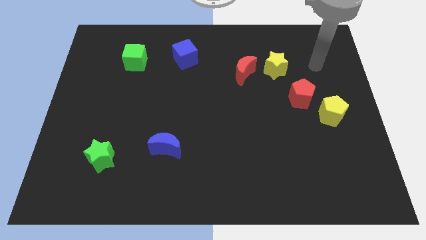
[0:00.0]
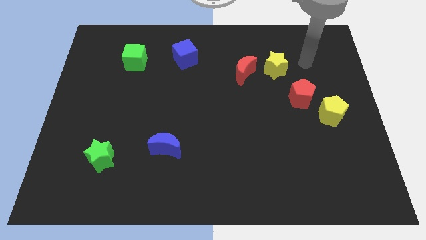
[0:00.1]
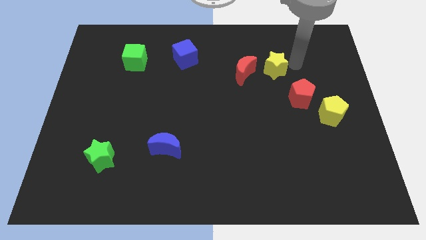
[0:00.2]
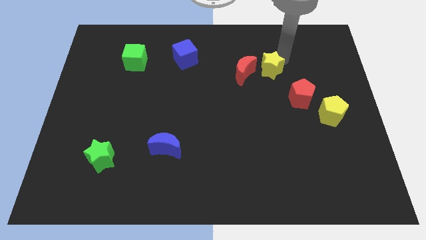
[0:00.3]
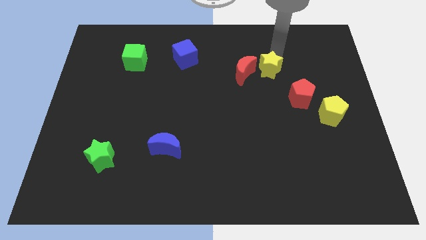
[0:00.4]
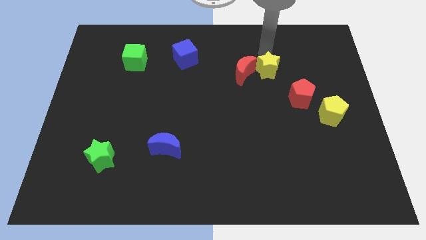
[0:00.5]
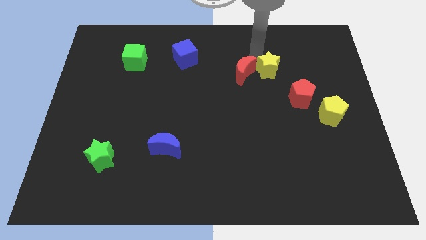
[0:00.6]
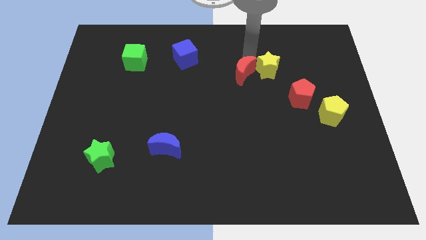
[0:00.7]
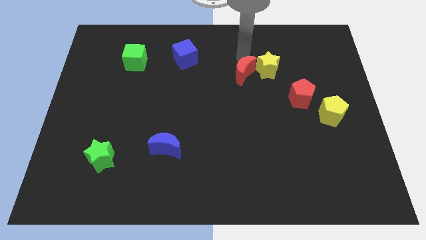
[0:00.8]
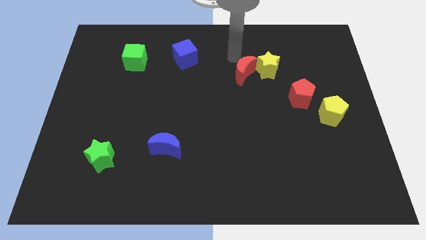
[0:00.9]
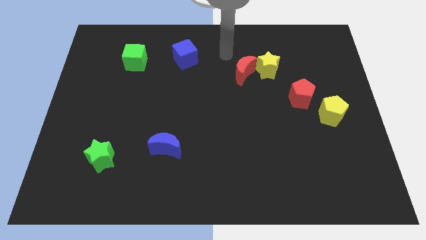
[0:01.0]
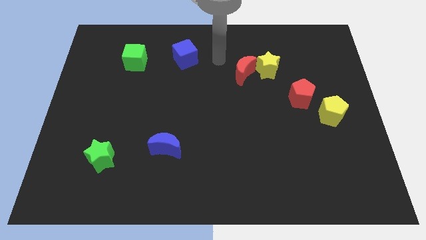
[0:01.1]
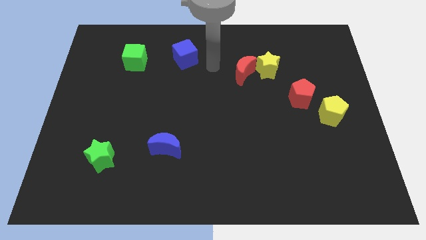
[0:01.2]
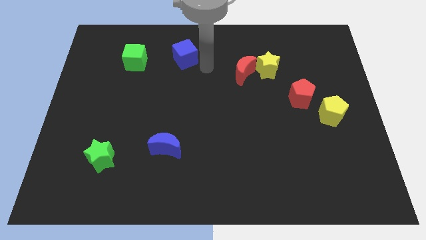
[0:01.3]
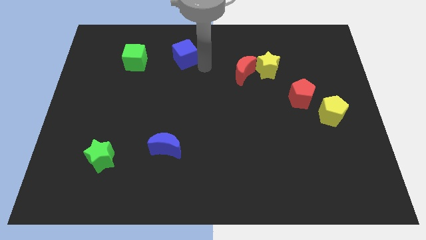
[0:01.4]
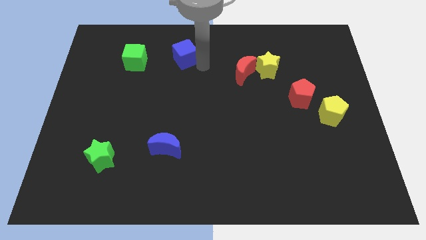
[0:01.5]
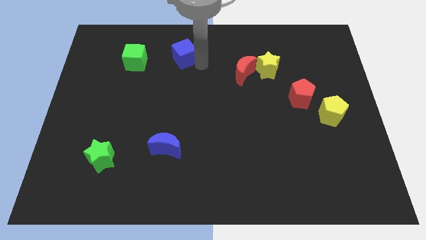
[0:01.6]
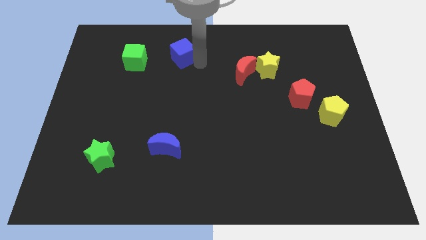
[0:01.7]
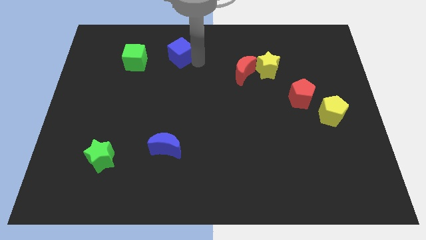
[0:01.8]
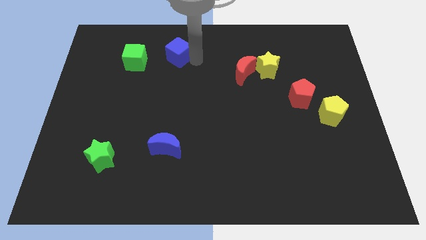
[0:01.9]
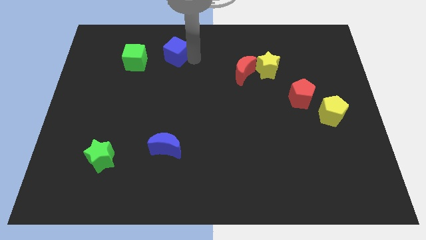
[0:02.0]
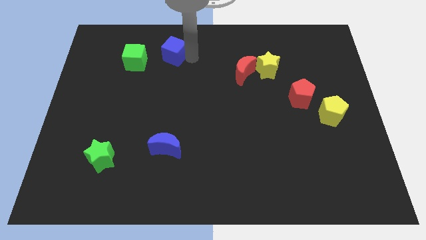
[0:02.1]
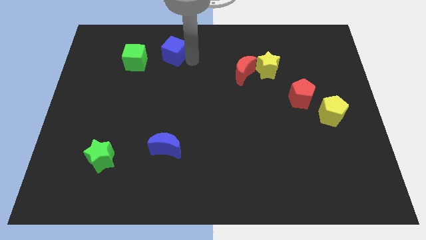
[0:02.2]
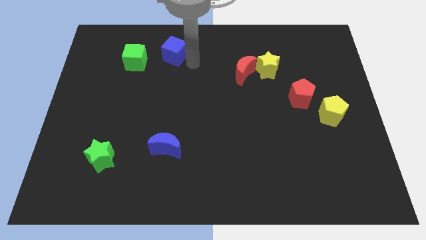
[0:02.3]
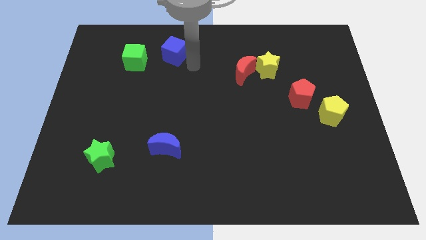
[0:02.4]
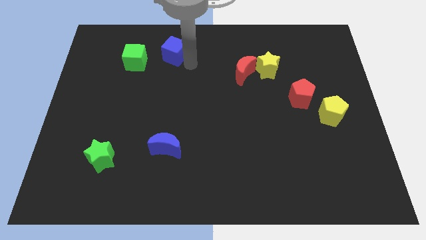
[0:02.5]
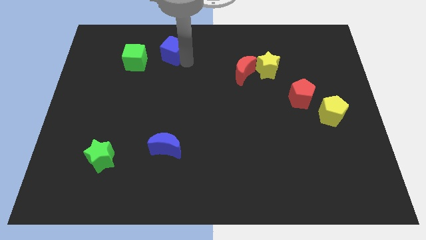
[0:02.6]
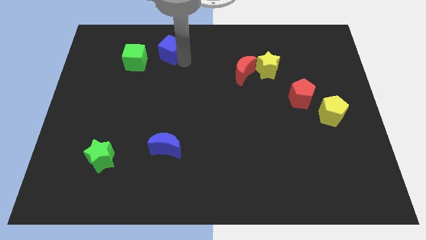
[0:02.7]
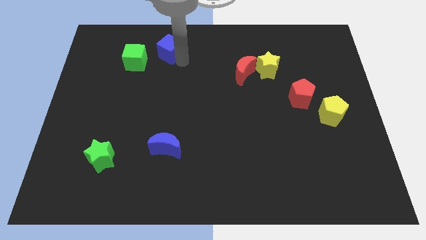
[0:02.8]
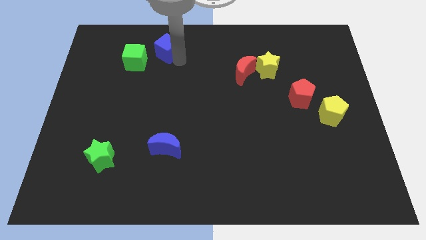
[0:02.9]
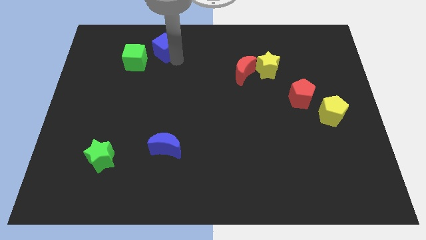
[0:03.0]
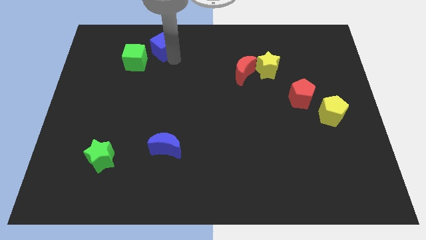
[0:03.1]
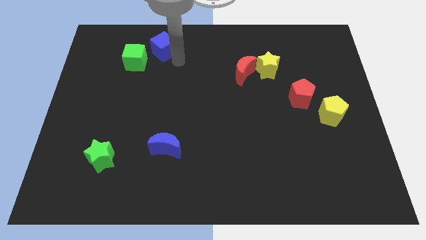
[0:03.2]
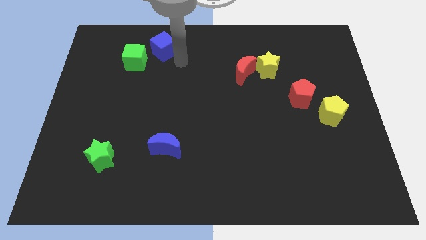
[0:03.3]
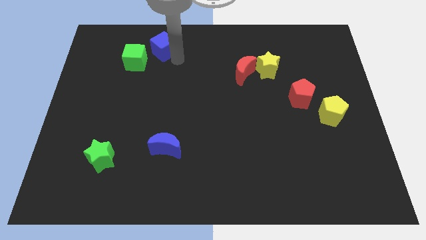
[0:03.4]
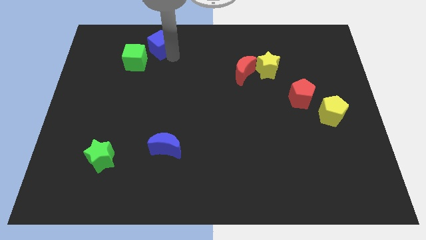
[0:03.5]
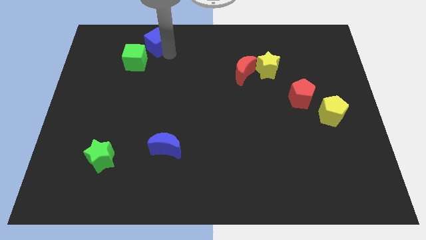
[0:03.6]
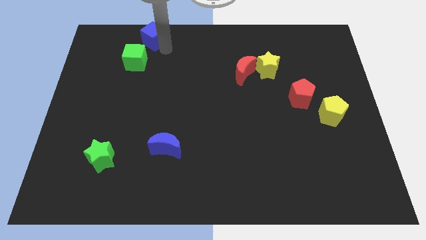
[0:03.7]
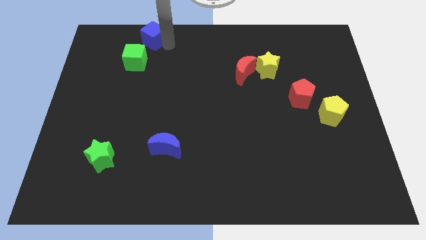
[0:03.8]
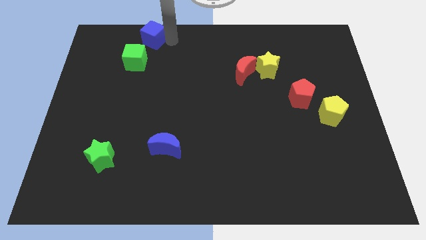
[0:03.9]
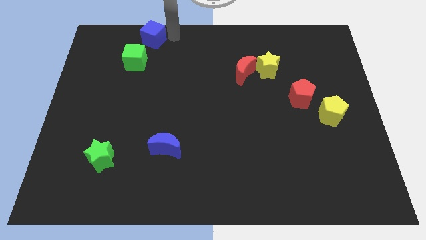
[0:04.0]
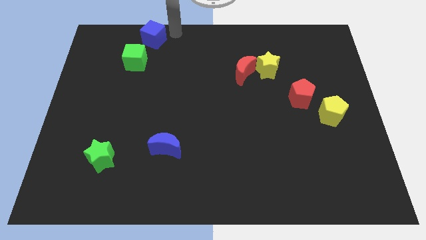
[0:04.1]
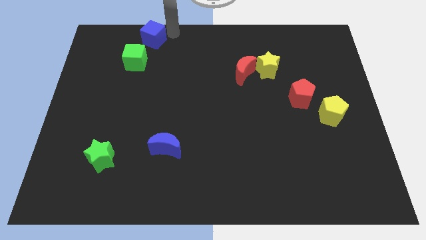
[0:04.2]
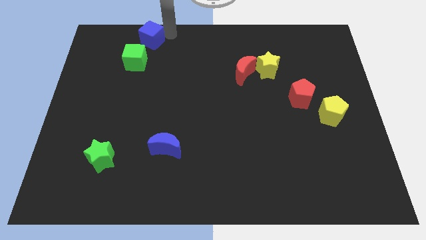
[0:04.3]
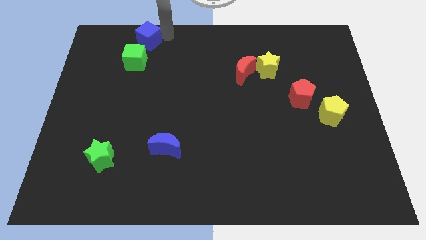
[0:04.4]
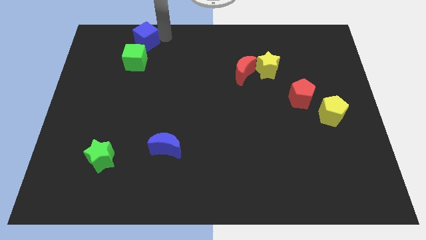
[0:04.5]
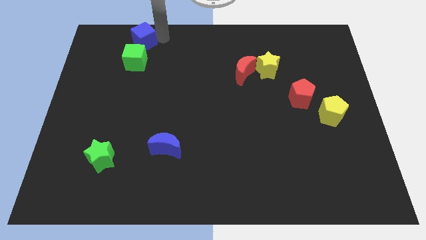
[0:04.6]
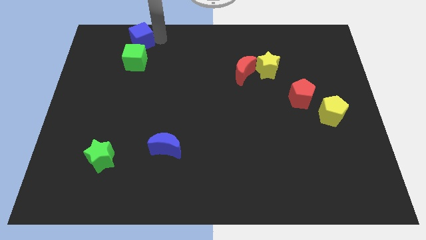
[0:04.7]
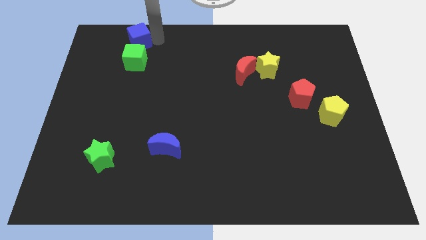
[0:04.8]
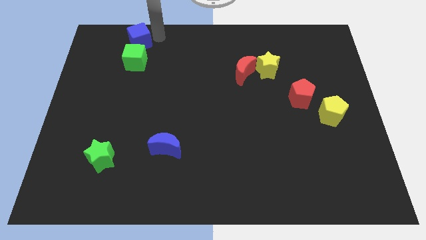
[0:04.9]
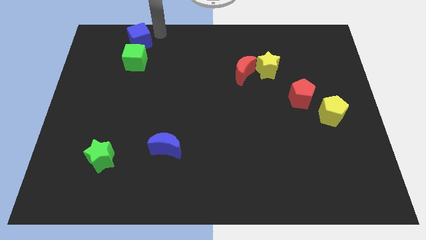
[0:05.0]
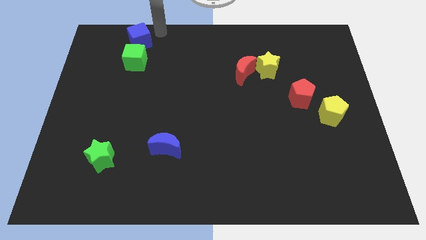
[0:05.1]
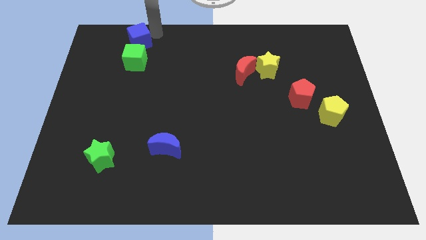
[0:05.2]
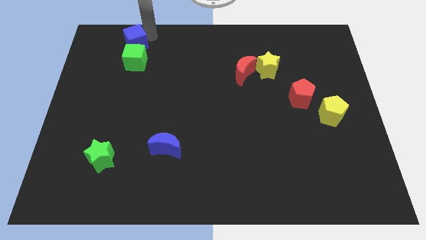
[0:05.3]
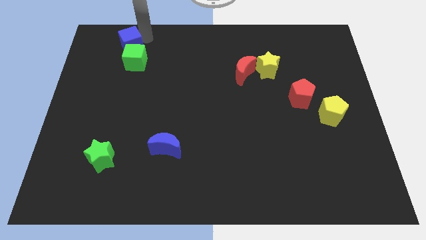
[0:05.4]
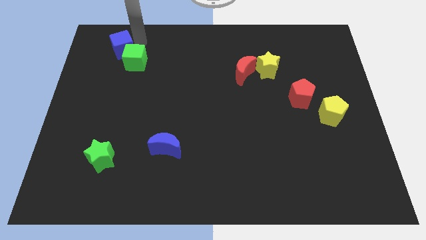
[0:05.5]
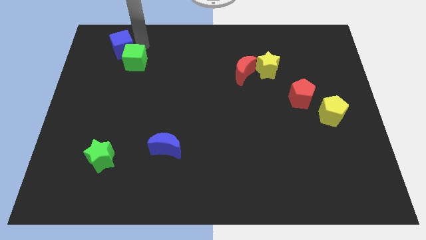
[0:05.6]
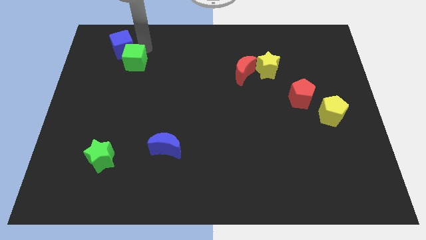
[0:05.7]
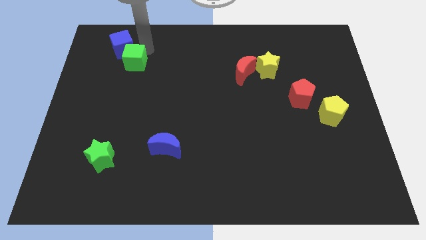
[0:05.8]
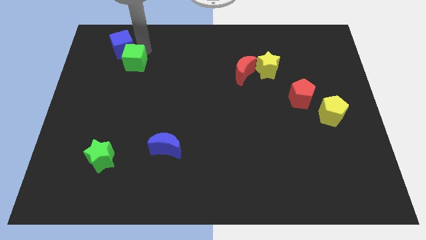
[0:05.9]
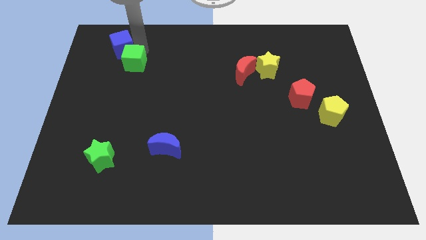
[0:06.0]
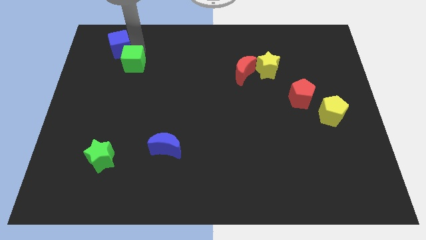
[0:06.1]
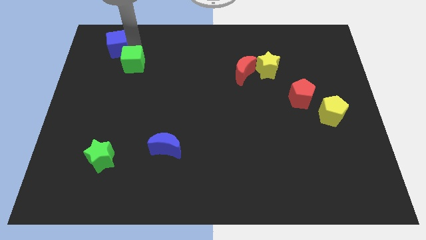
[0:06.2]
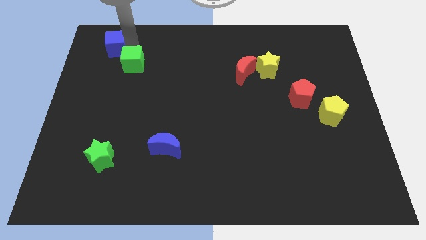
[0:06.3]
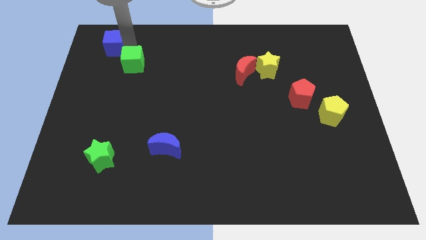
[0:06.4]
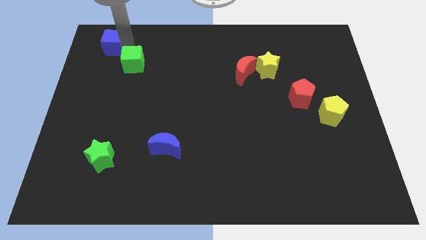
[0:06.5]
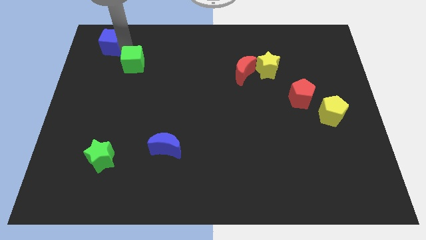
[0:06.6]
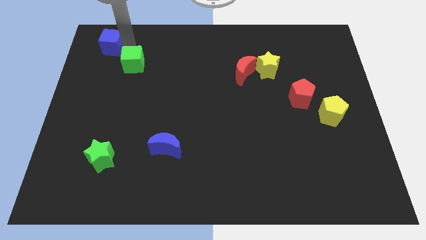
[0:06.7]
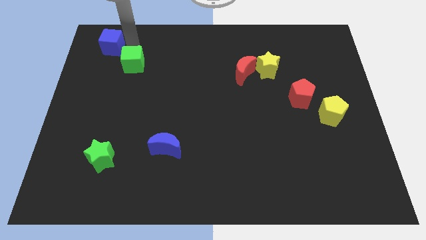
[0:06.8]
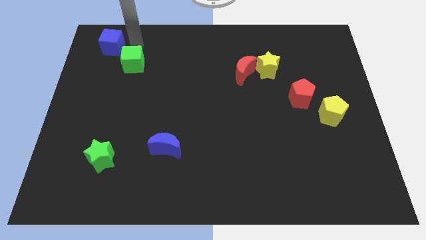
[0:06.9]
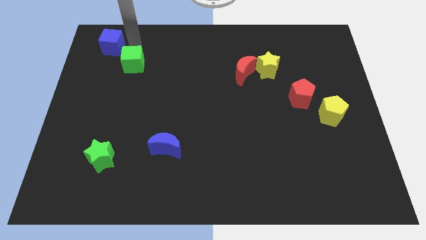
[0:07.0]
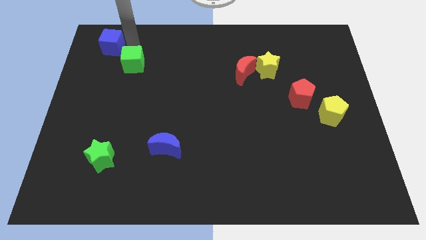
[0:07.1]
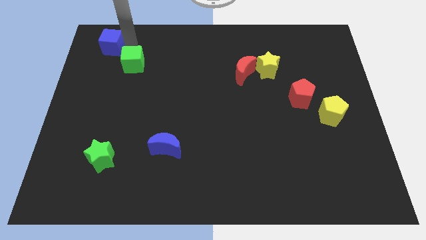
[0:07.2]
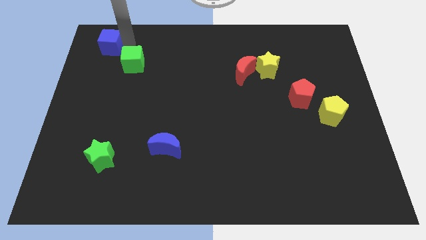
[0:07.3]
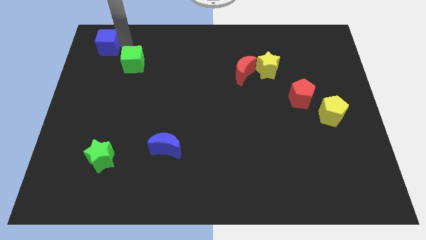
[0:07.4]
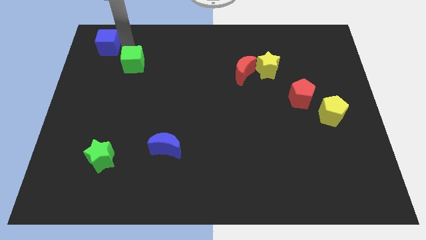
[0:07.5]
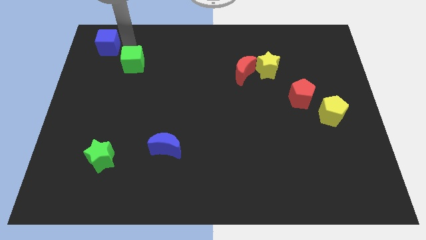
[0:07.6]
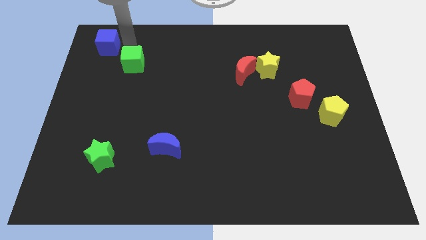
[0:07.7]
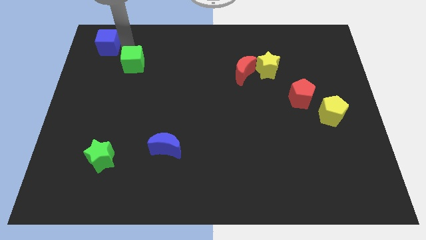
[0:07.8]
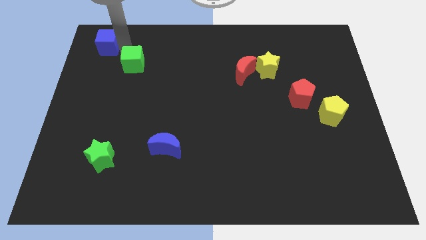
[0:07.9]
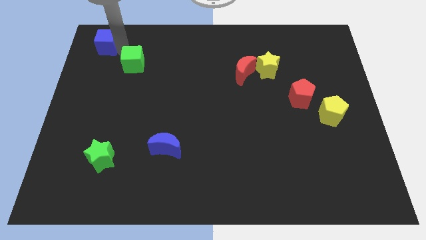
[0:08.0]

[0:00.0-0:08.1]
slide the blue cube to the top left of the board
